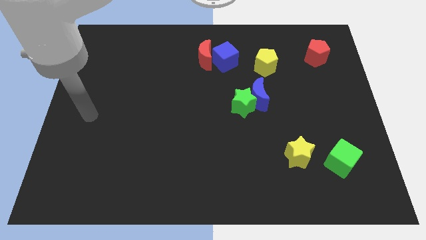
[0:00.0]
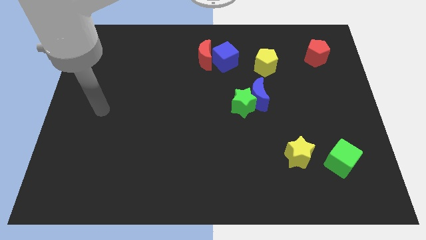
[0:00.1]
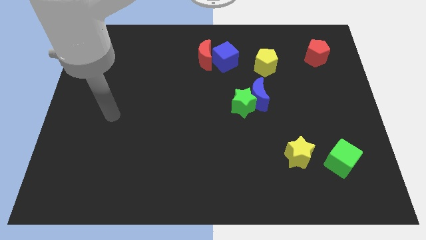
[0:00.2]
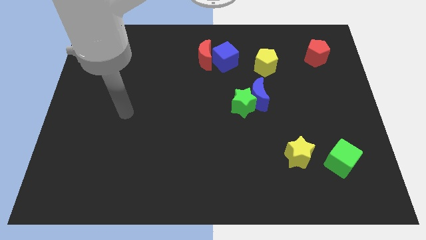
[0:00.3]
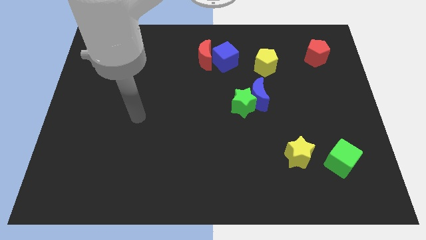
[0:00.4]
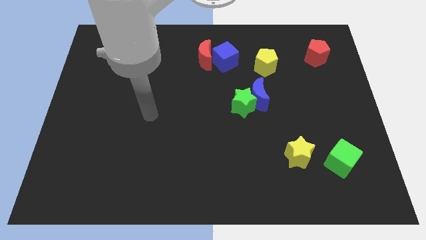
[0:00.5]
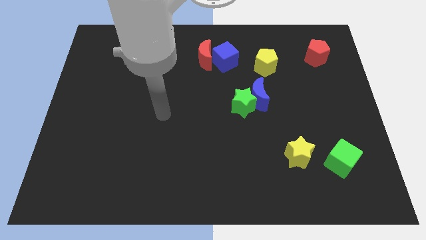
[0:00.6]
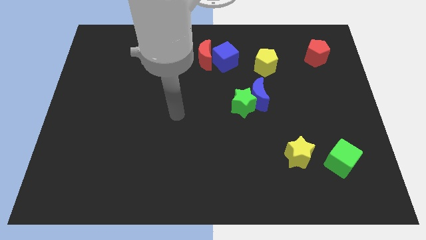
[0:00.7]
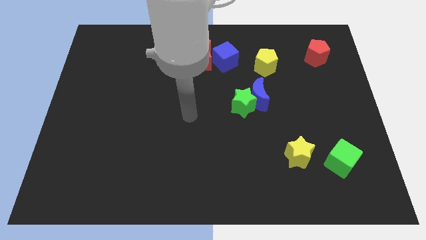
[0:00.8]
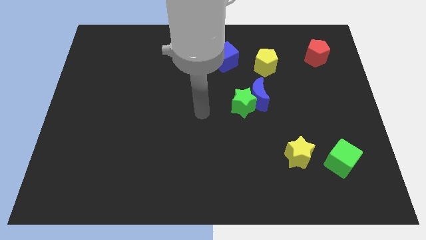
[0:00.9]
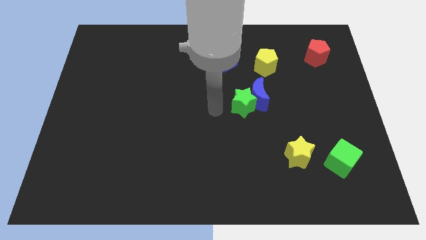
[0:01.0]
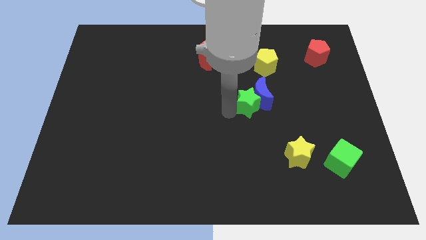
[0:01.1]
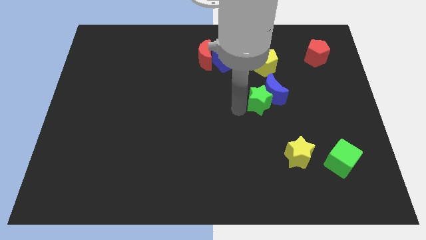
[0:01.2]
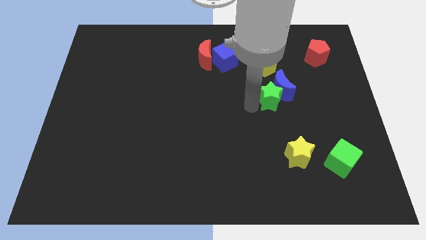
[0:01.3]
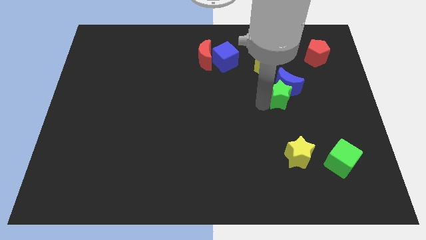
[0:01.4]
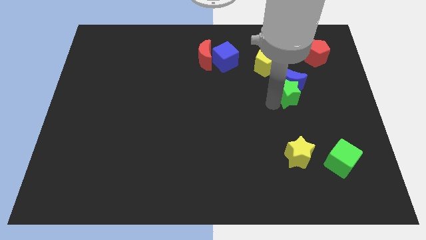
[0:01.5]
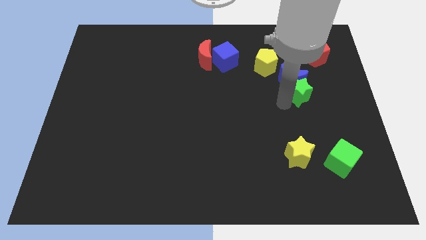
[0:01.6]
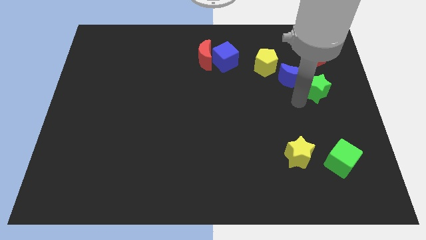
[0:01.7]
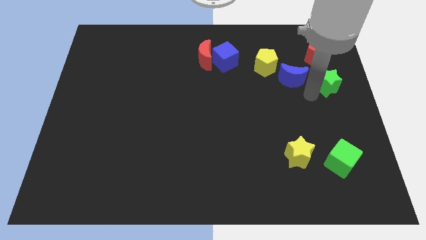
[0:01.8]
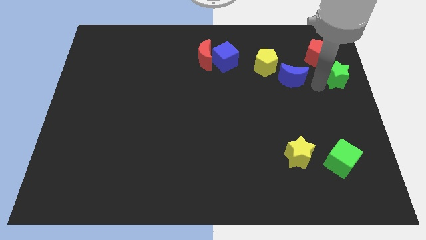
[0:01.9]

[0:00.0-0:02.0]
move the blue moon away from the green star

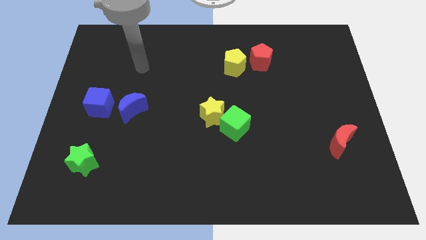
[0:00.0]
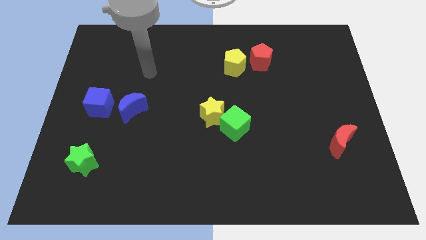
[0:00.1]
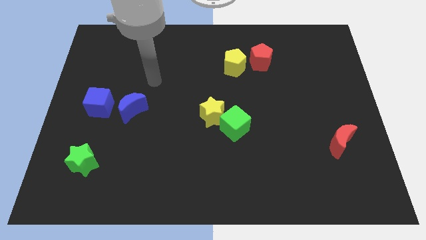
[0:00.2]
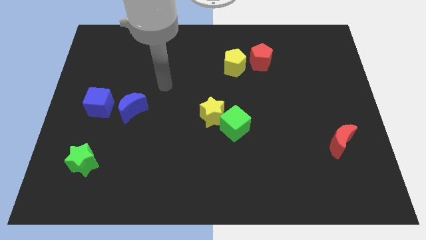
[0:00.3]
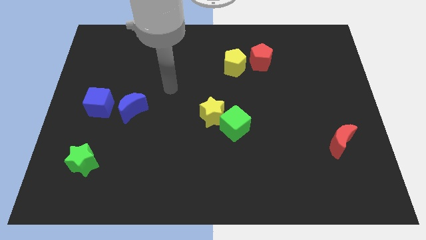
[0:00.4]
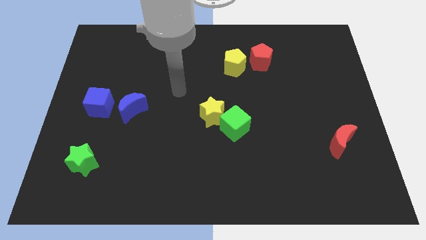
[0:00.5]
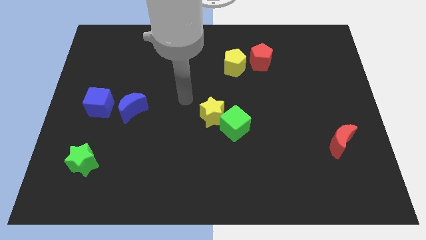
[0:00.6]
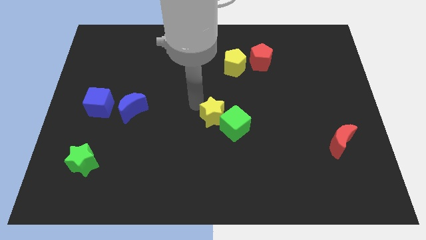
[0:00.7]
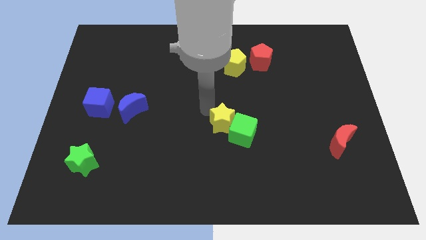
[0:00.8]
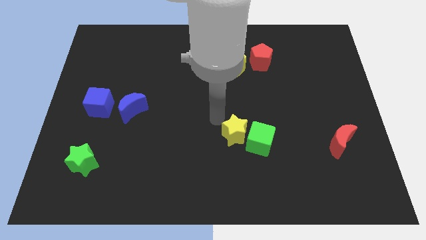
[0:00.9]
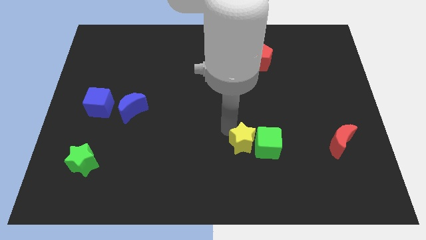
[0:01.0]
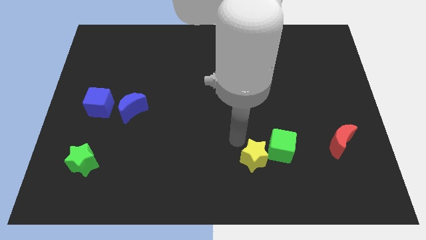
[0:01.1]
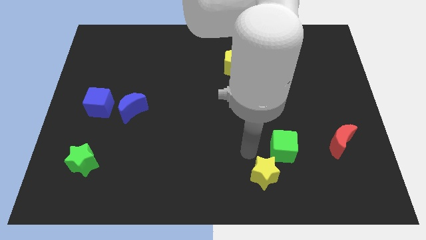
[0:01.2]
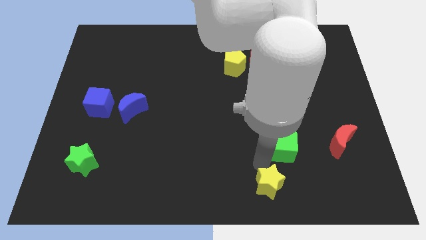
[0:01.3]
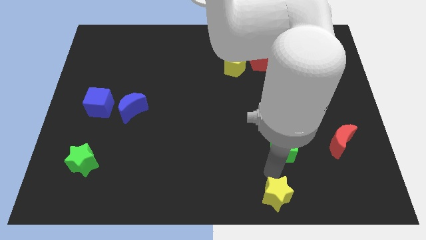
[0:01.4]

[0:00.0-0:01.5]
move the green cube away from the yellow star

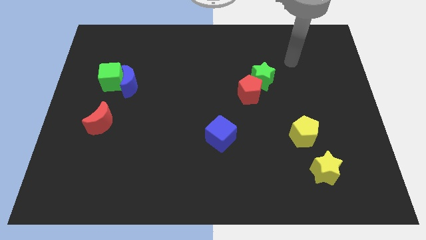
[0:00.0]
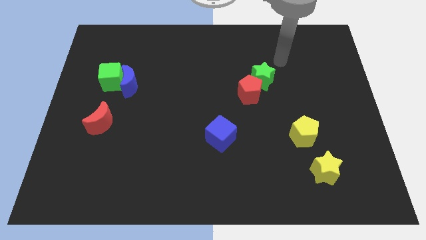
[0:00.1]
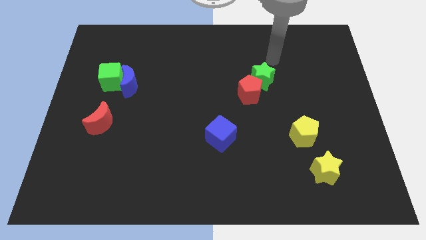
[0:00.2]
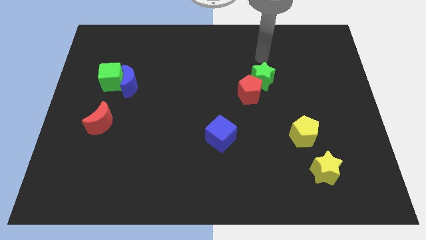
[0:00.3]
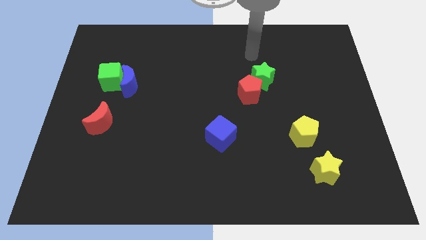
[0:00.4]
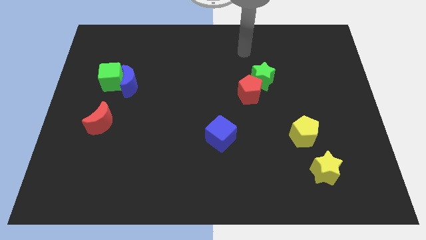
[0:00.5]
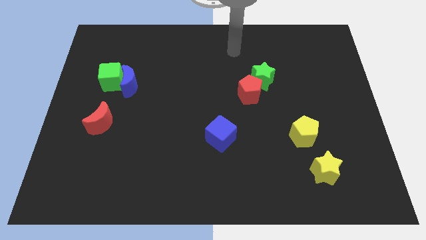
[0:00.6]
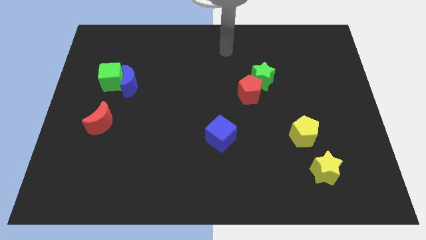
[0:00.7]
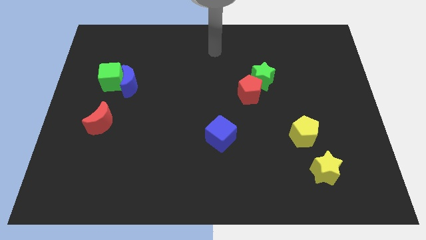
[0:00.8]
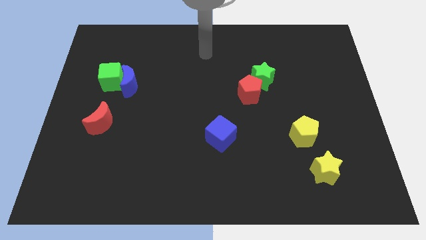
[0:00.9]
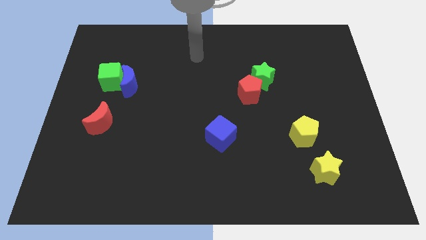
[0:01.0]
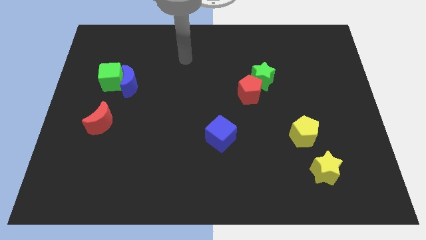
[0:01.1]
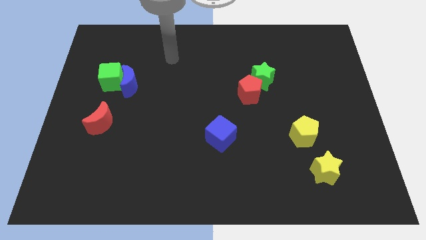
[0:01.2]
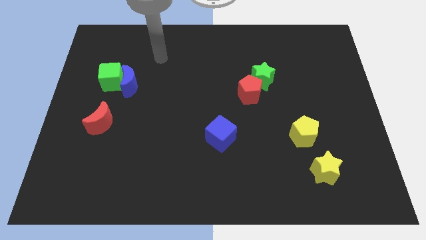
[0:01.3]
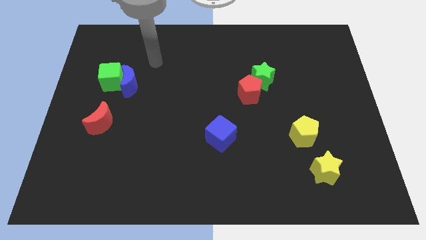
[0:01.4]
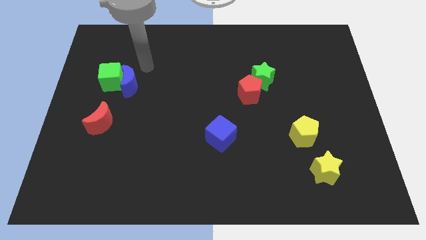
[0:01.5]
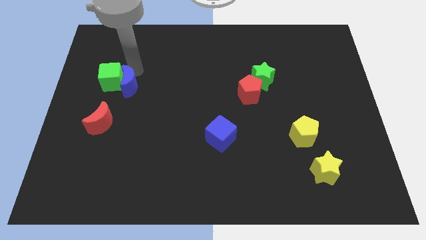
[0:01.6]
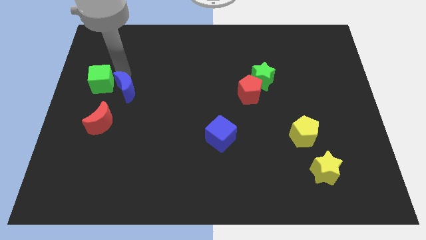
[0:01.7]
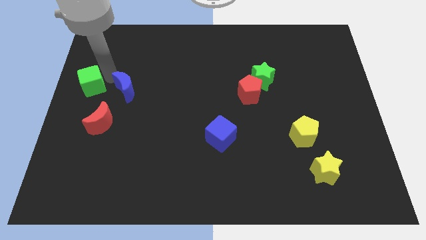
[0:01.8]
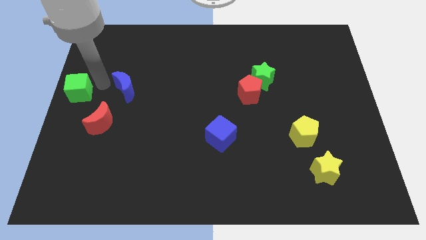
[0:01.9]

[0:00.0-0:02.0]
separate the blue moon from the green cube

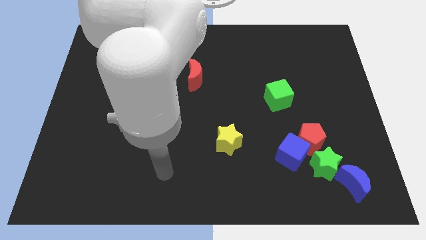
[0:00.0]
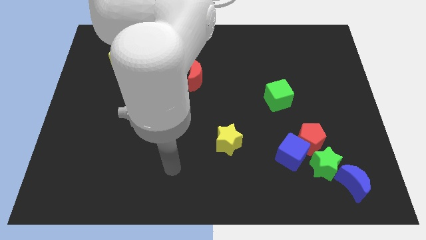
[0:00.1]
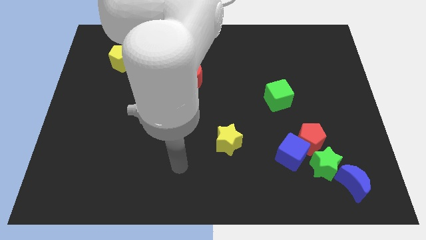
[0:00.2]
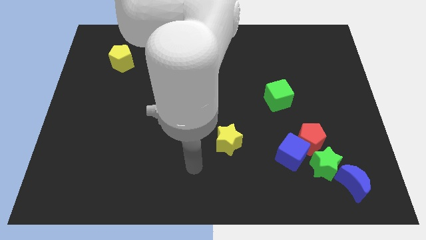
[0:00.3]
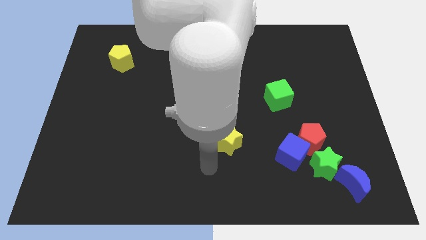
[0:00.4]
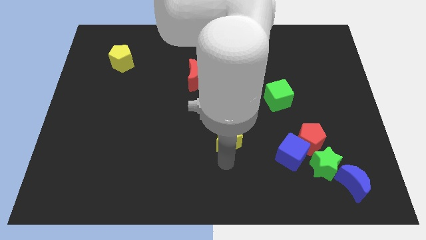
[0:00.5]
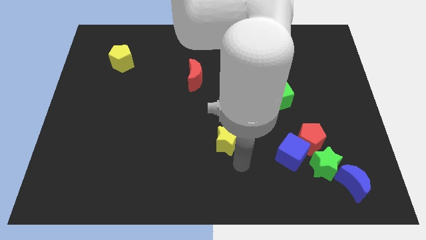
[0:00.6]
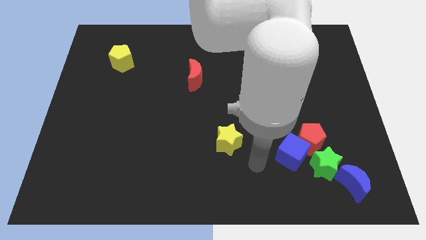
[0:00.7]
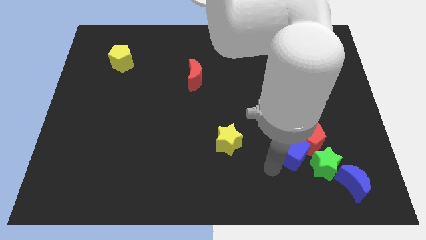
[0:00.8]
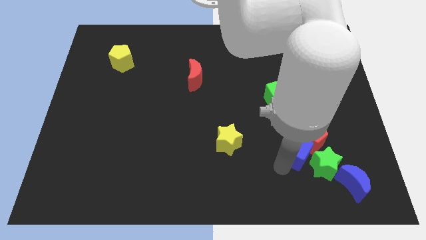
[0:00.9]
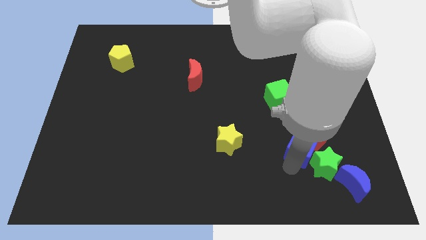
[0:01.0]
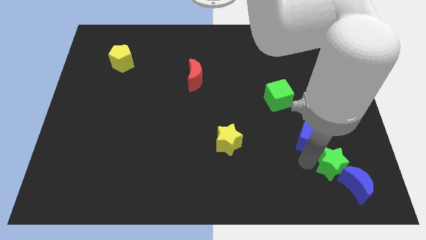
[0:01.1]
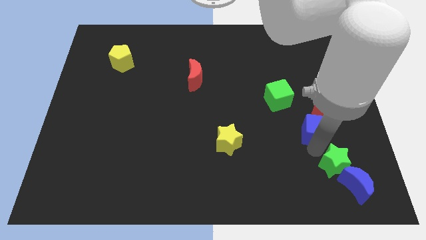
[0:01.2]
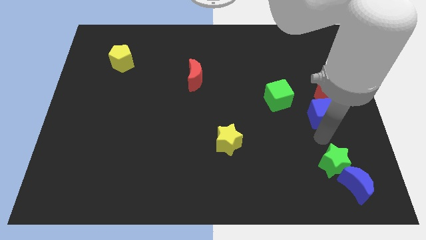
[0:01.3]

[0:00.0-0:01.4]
separate the red pentagon from the blue cube and green star

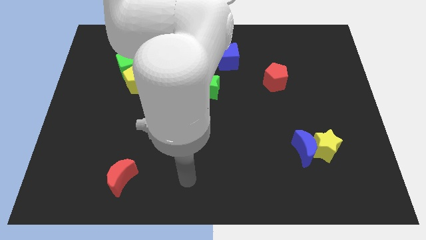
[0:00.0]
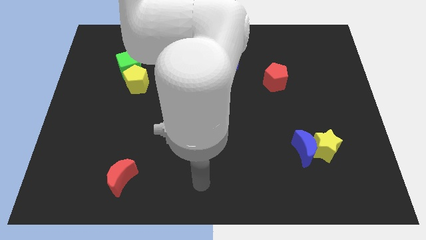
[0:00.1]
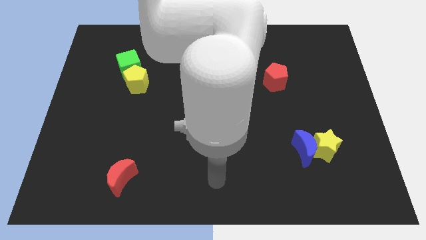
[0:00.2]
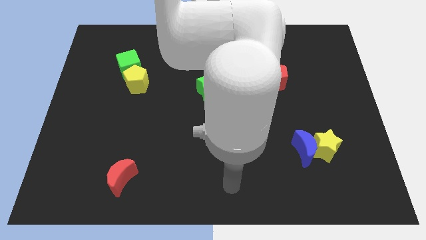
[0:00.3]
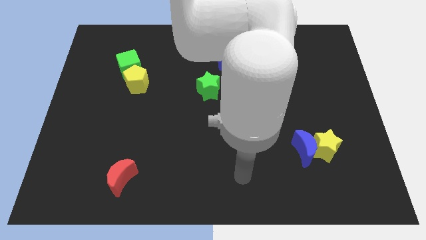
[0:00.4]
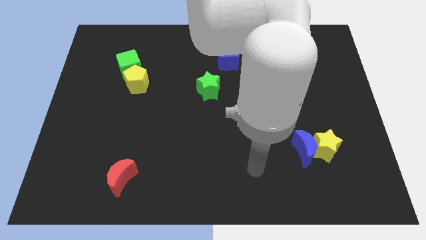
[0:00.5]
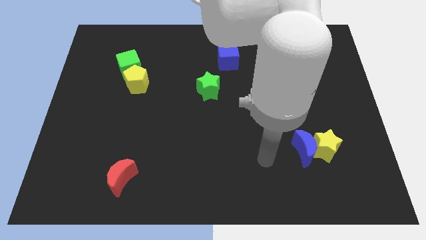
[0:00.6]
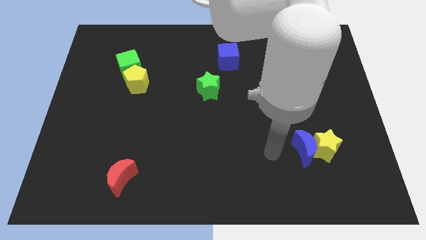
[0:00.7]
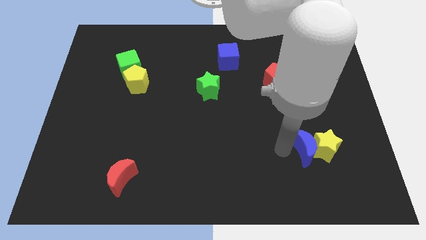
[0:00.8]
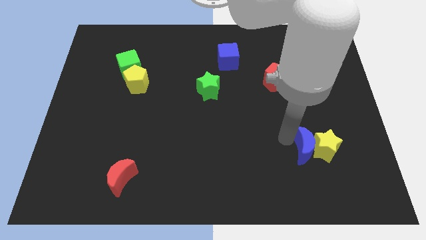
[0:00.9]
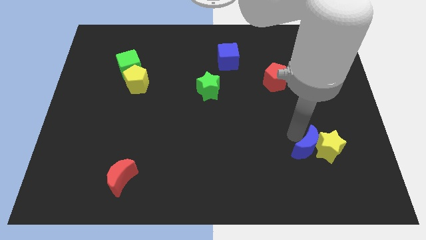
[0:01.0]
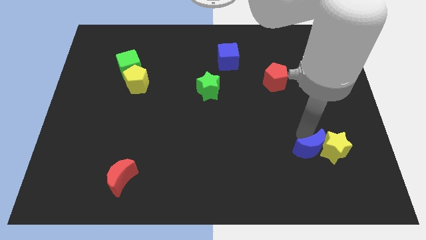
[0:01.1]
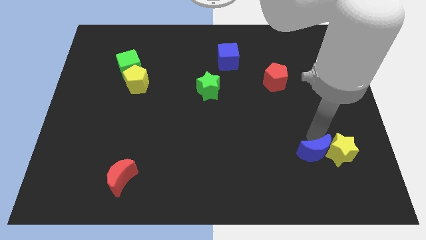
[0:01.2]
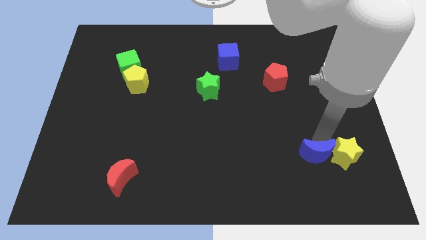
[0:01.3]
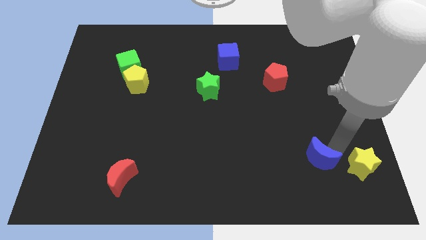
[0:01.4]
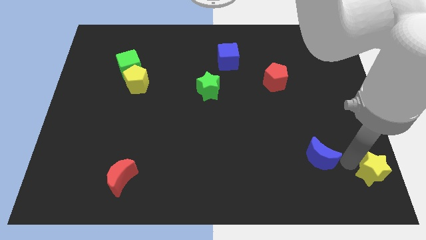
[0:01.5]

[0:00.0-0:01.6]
move the blue moon away from the yellow star

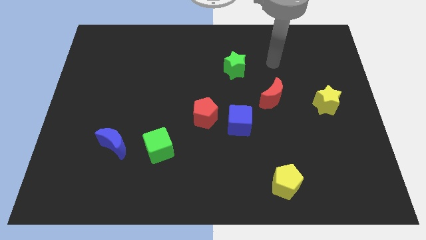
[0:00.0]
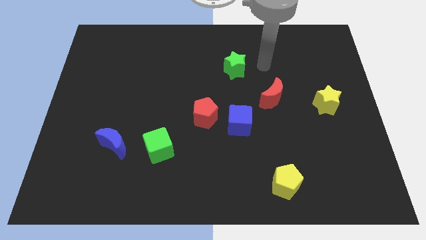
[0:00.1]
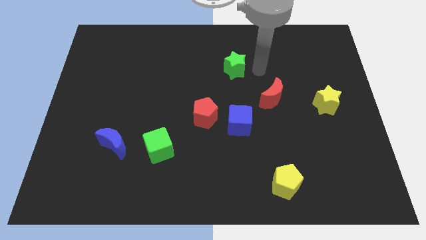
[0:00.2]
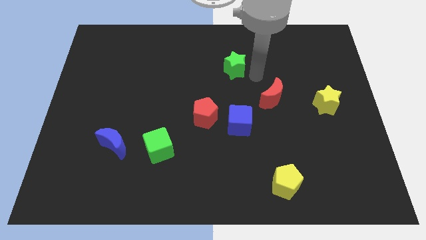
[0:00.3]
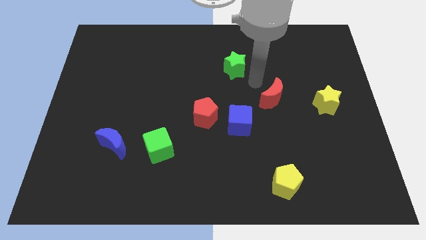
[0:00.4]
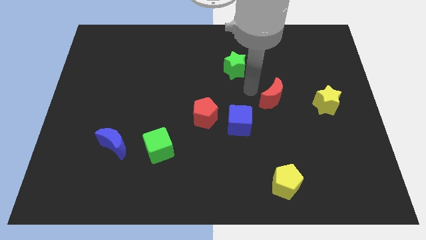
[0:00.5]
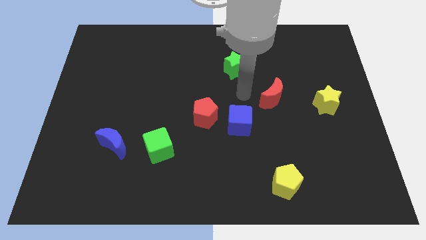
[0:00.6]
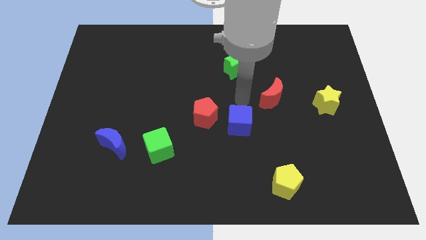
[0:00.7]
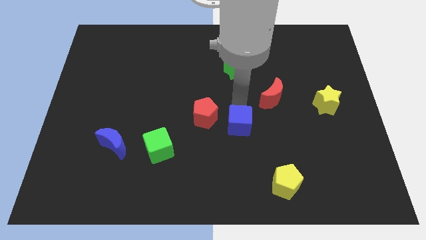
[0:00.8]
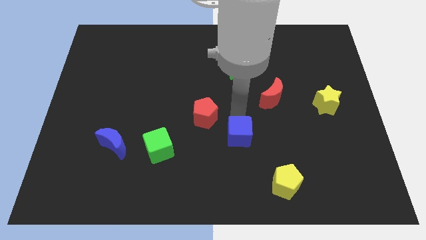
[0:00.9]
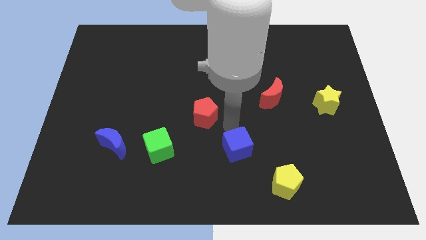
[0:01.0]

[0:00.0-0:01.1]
pull the red pentagon apart from the blue cube
